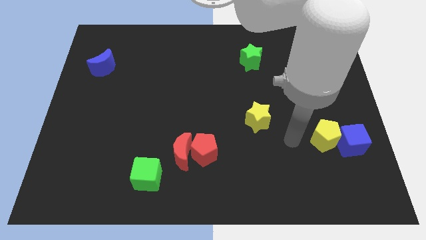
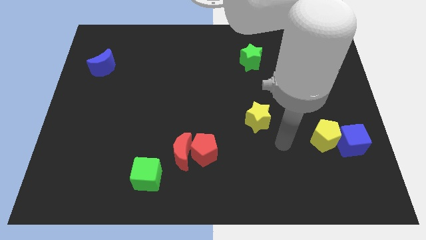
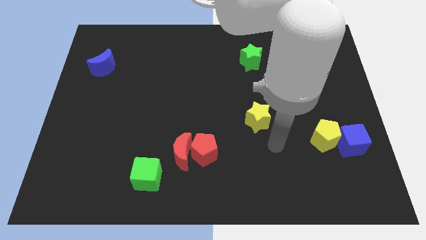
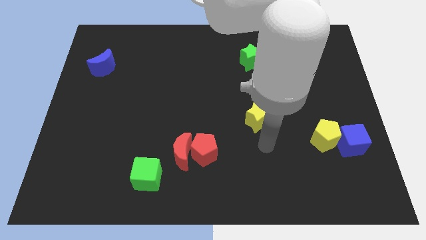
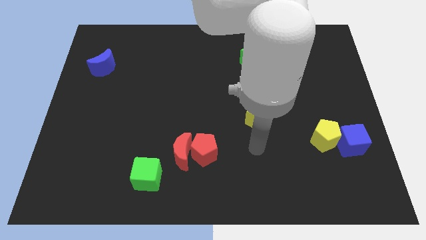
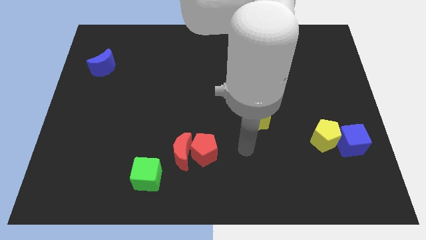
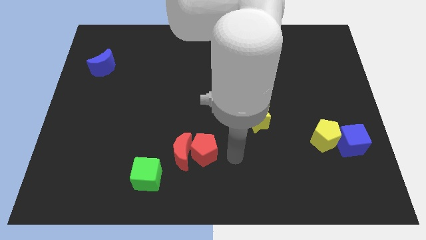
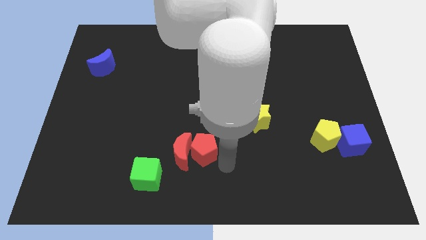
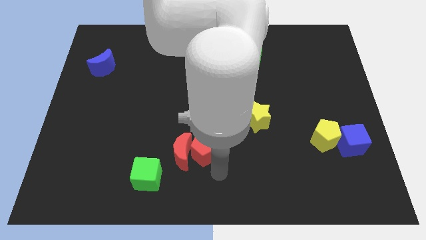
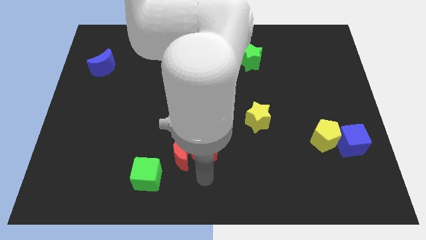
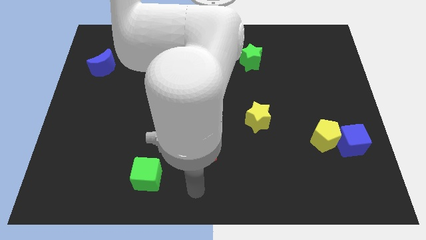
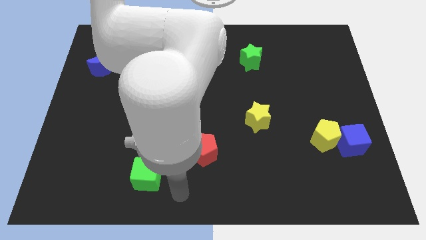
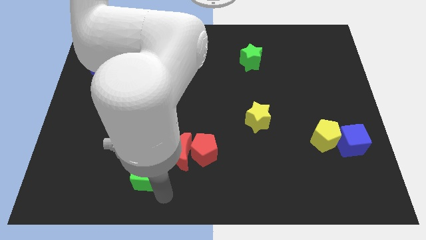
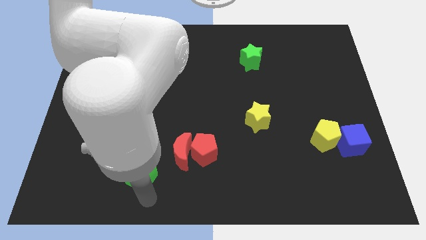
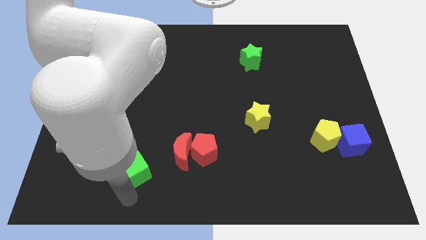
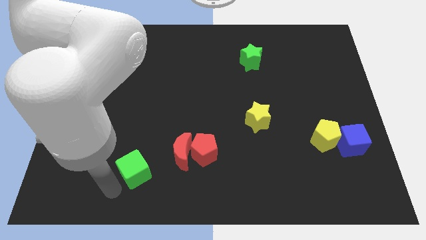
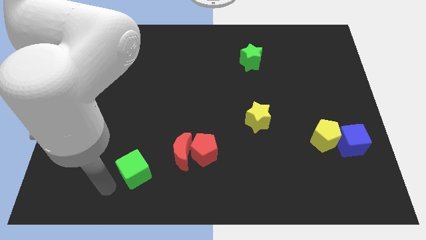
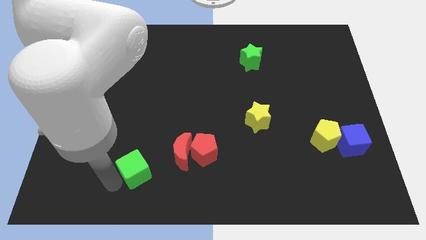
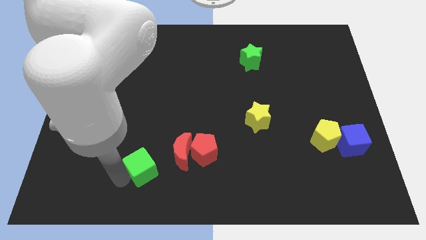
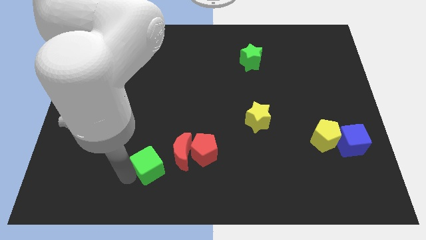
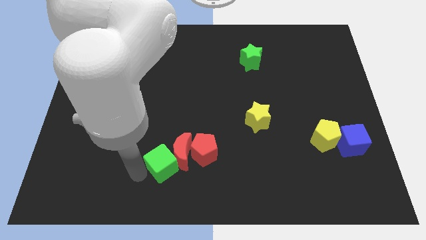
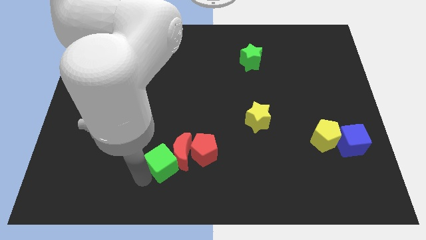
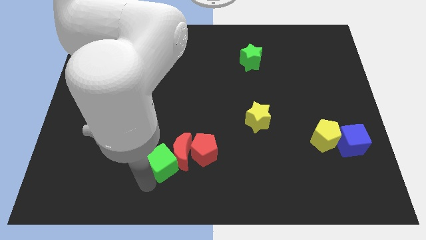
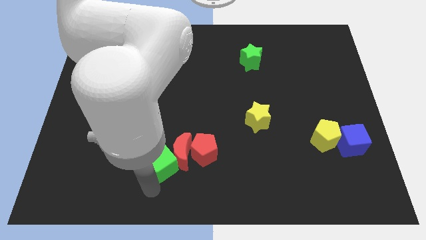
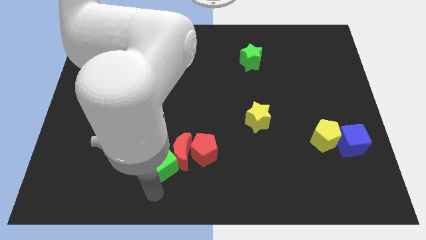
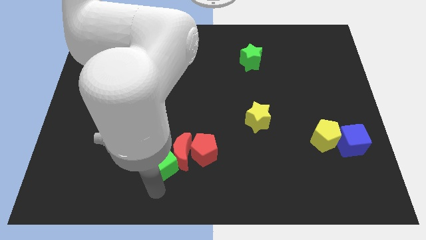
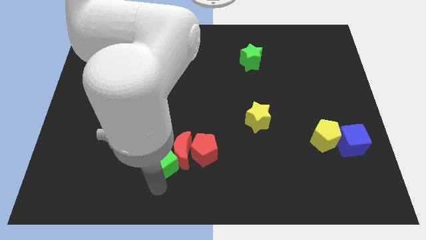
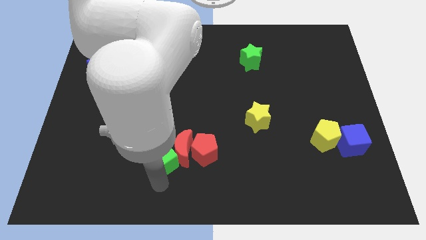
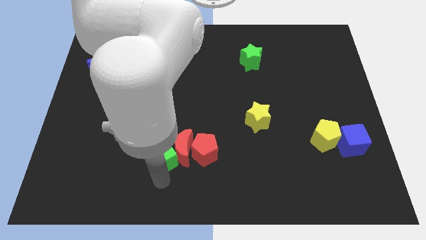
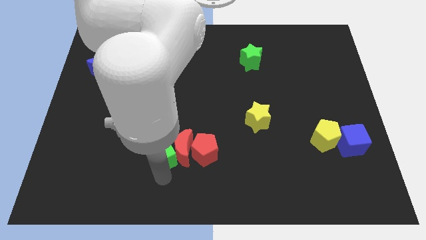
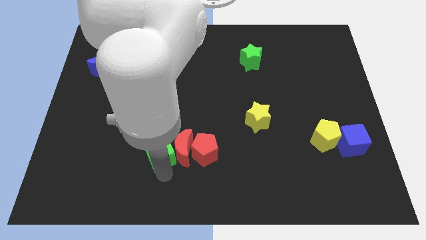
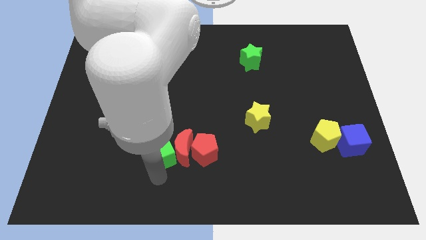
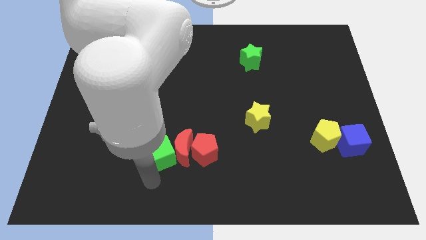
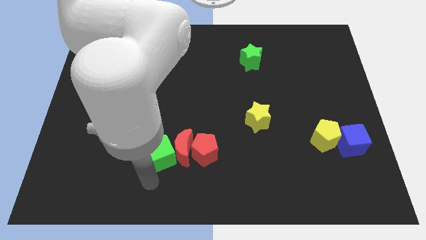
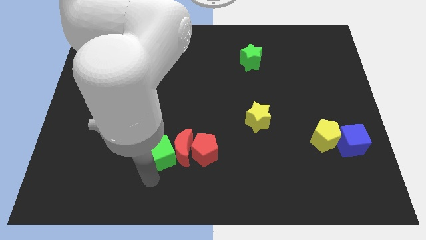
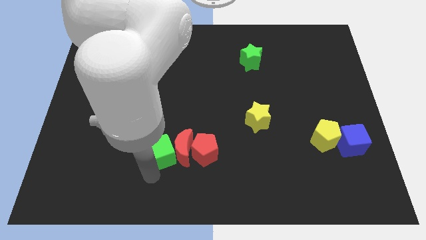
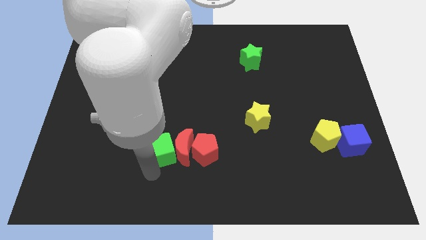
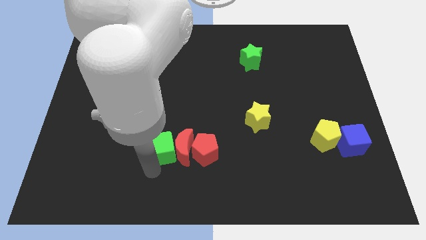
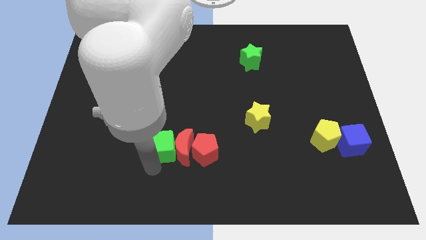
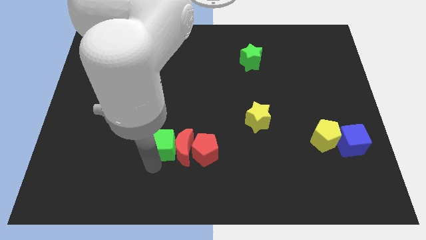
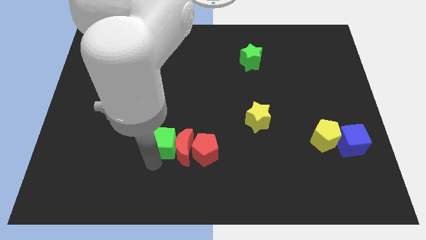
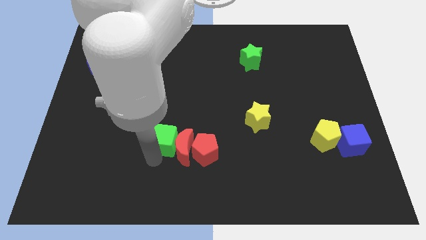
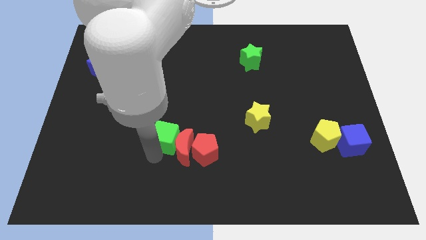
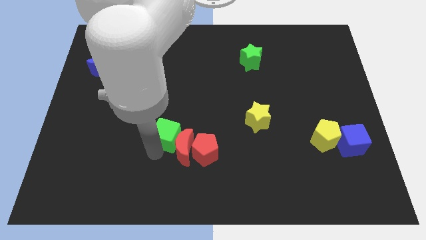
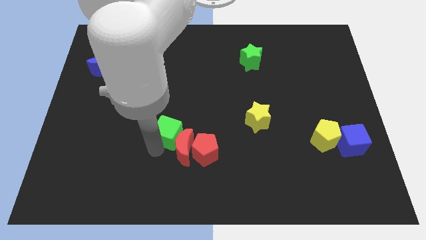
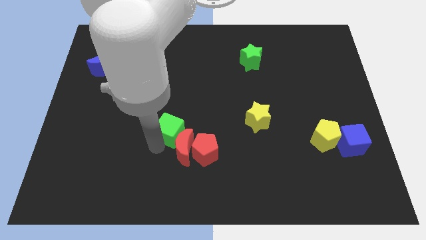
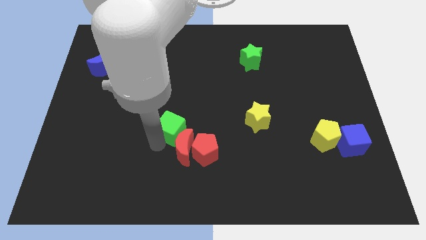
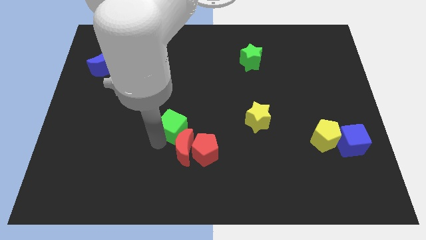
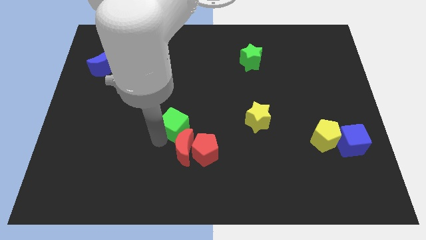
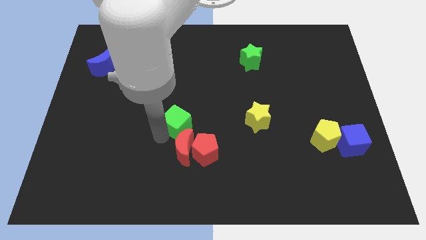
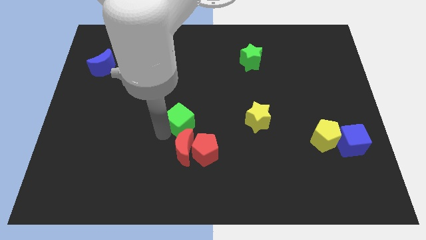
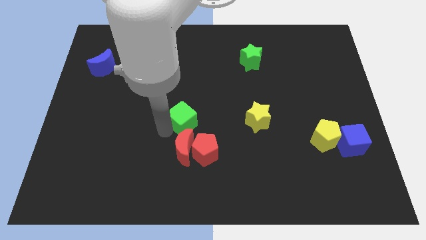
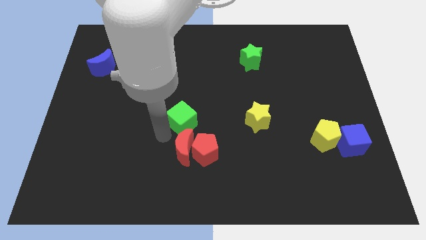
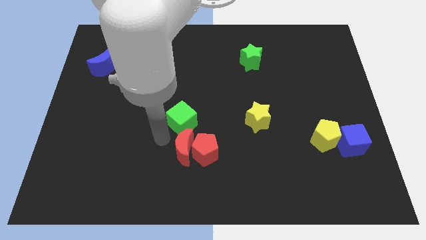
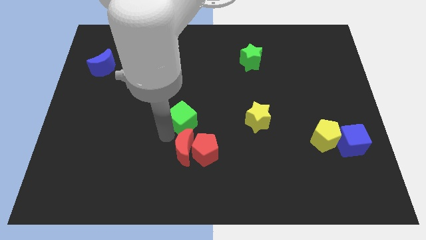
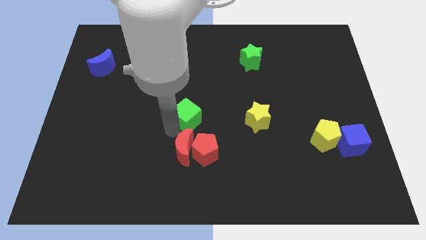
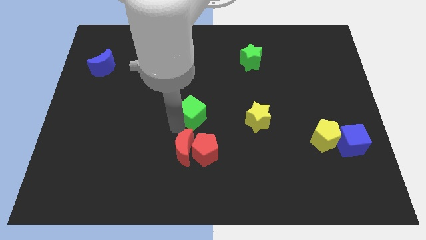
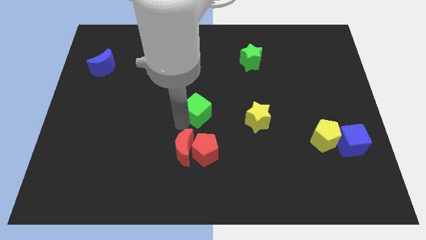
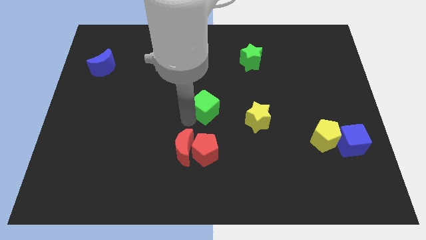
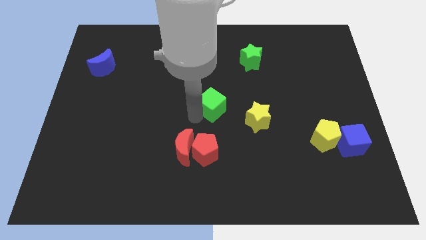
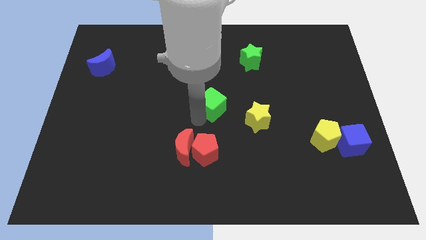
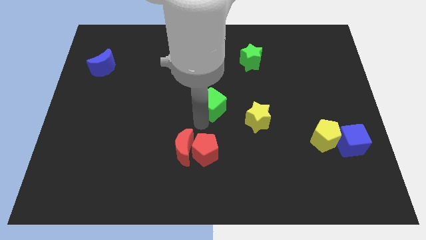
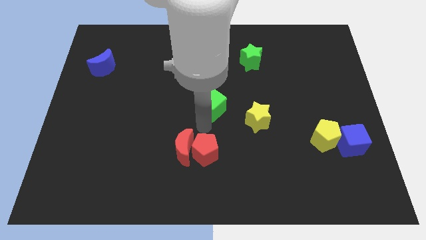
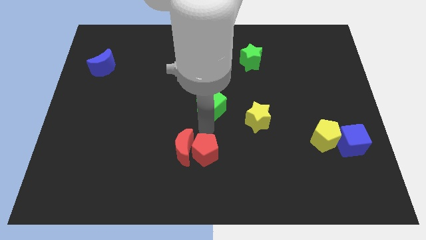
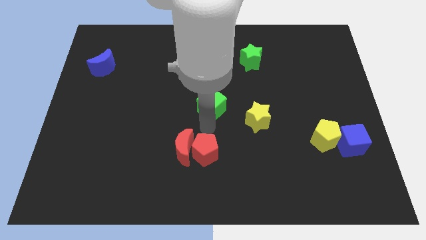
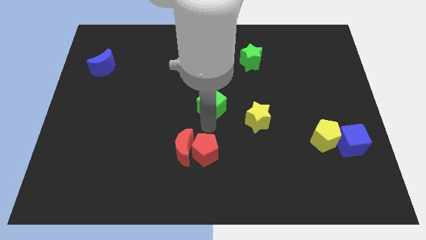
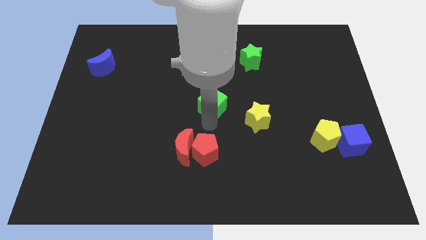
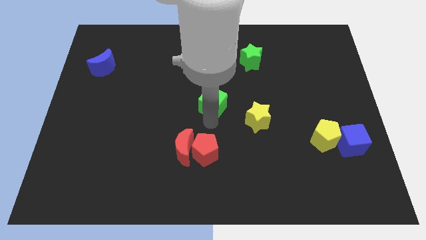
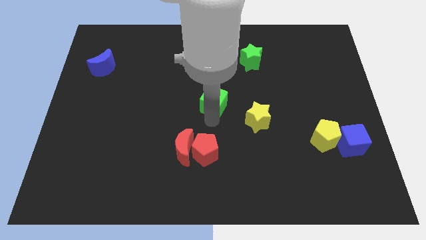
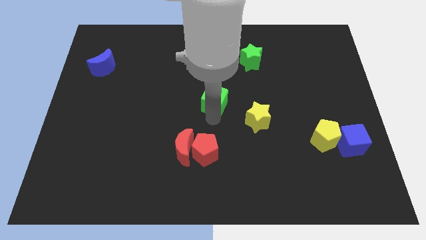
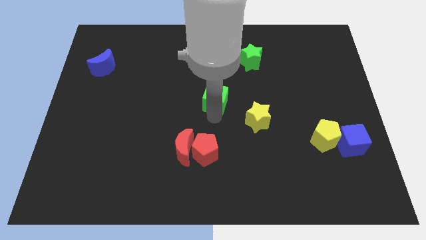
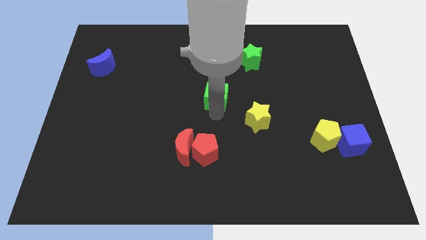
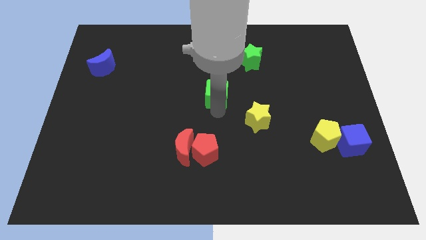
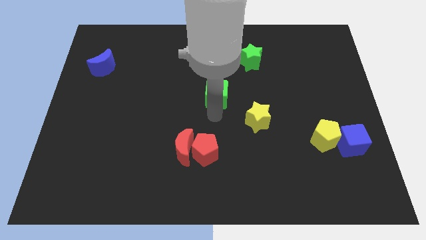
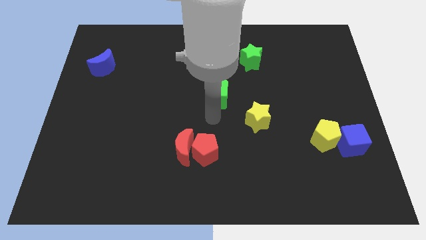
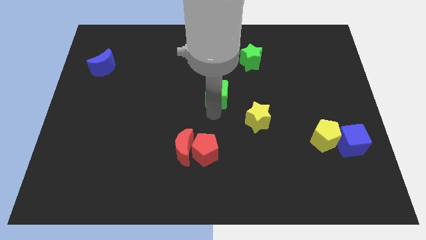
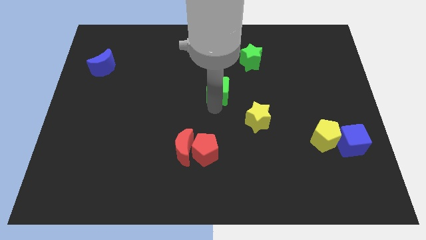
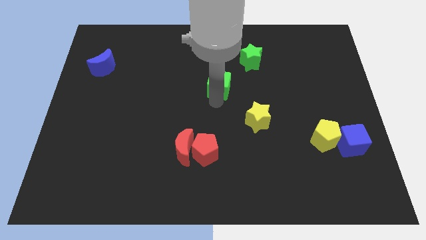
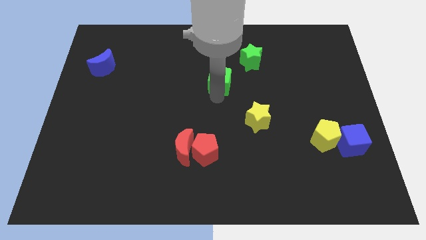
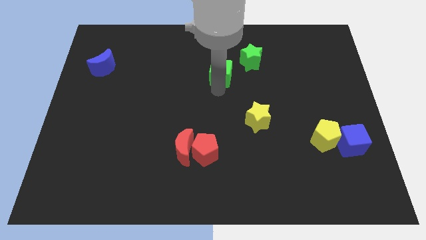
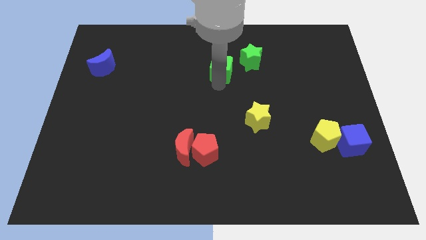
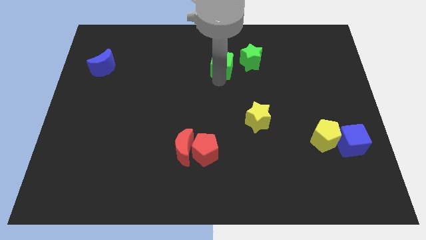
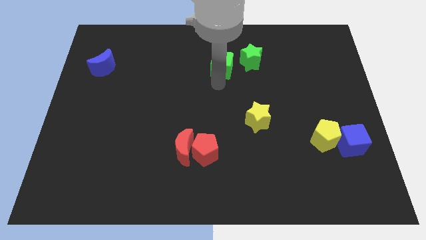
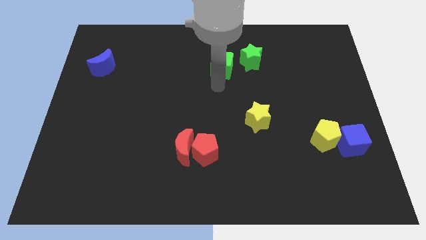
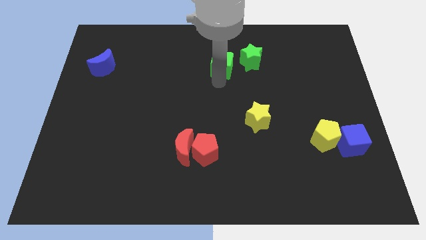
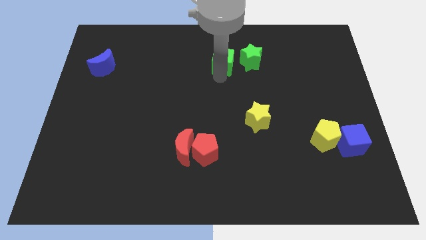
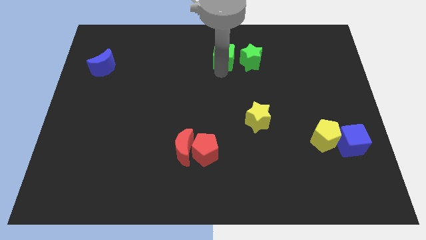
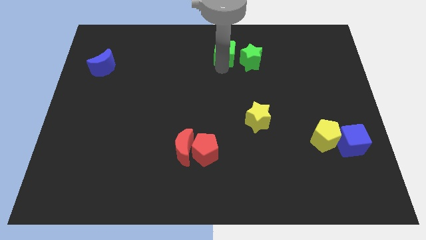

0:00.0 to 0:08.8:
move the green cube to the towards your base
